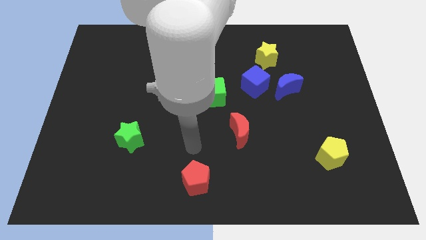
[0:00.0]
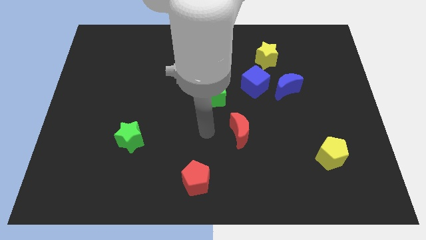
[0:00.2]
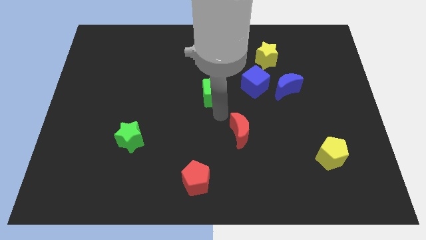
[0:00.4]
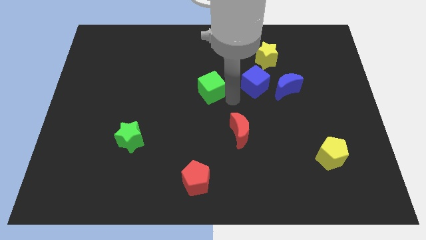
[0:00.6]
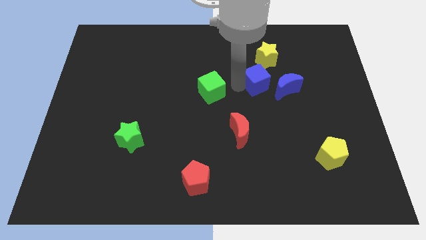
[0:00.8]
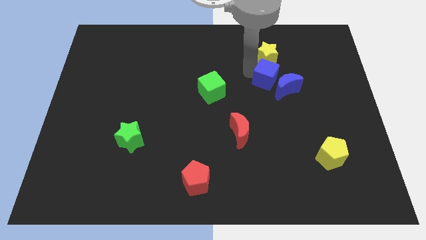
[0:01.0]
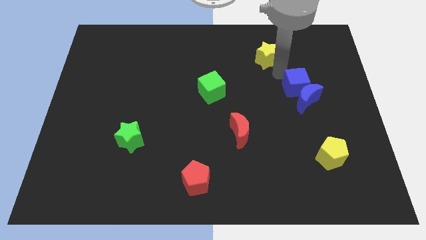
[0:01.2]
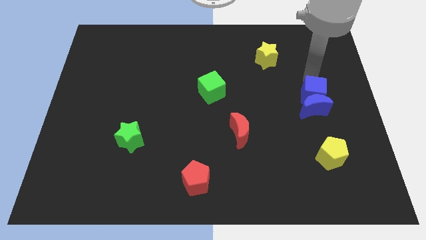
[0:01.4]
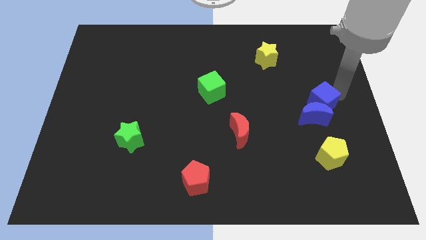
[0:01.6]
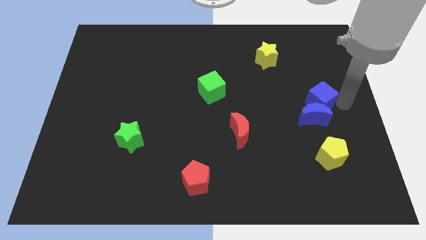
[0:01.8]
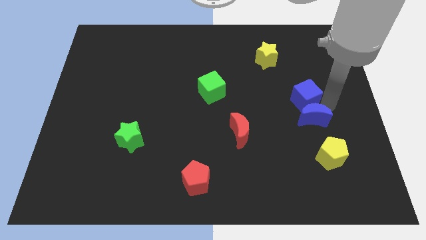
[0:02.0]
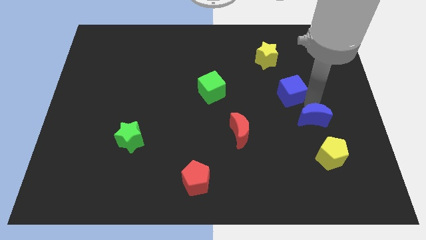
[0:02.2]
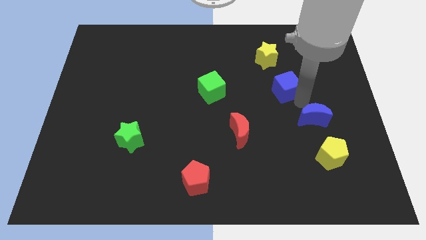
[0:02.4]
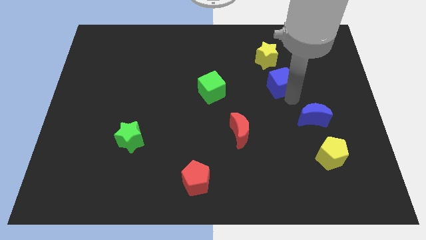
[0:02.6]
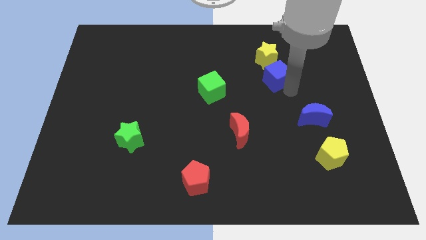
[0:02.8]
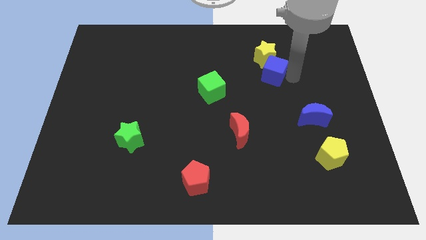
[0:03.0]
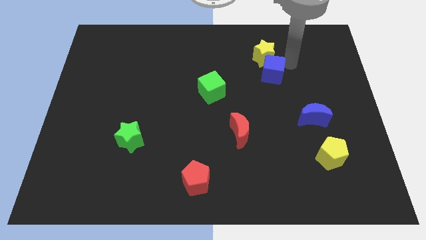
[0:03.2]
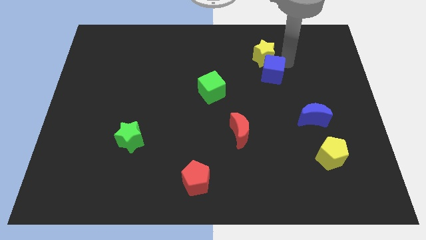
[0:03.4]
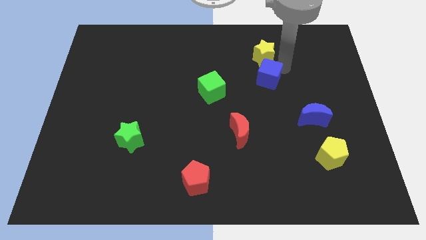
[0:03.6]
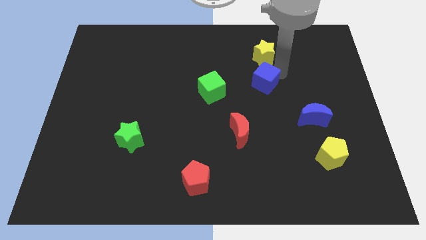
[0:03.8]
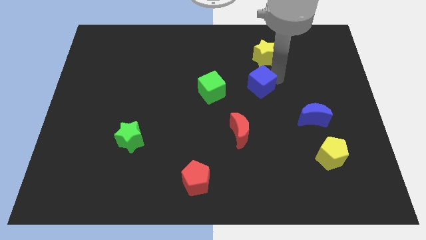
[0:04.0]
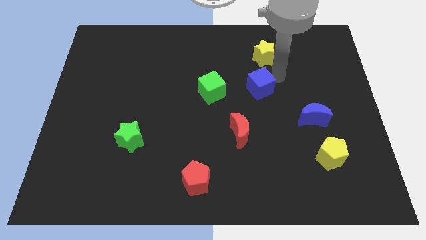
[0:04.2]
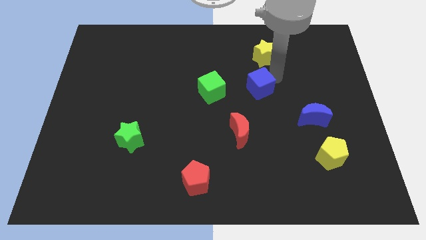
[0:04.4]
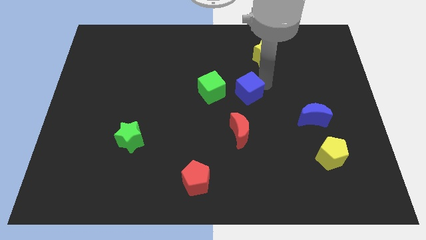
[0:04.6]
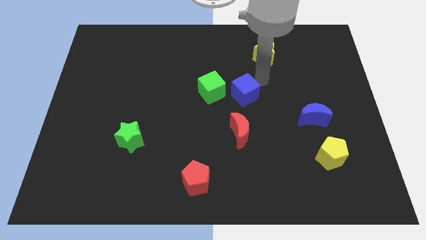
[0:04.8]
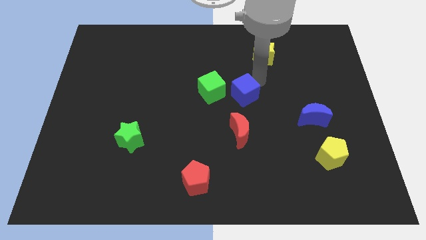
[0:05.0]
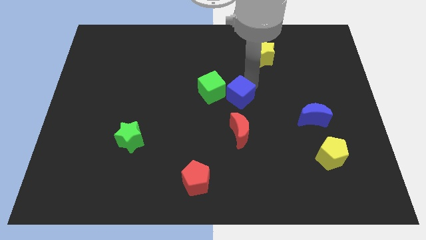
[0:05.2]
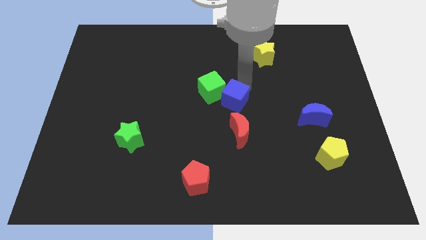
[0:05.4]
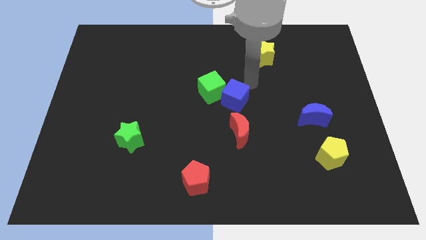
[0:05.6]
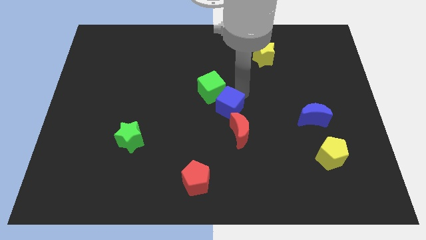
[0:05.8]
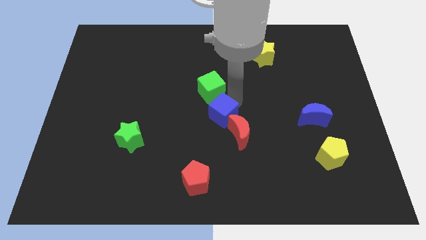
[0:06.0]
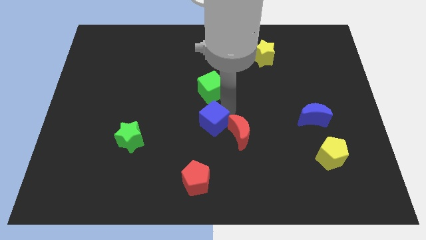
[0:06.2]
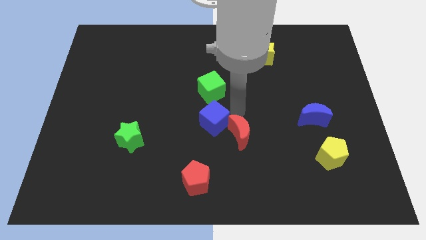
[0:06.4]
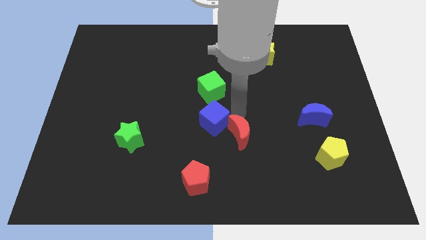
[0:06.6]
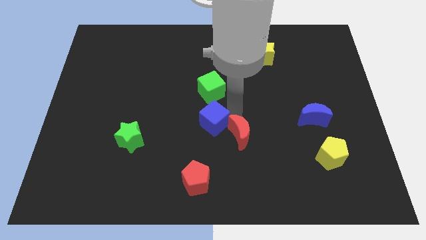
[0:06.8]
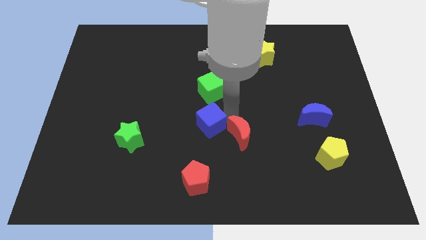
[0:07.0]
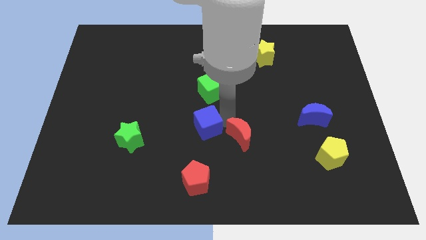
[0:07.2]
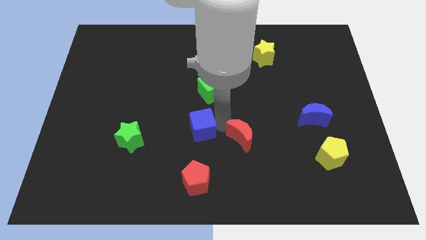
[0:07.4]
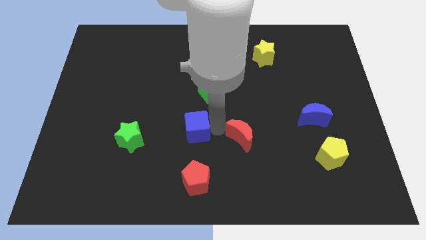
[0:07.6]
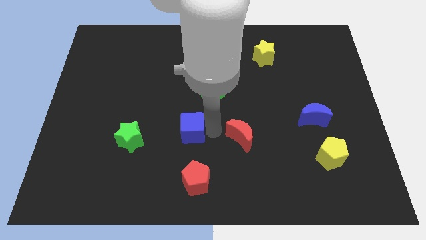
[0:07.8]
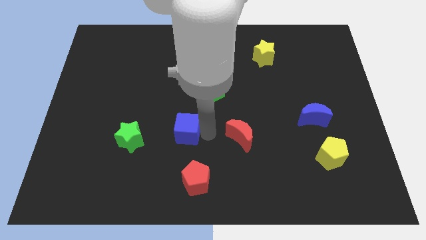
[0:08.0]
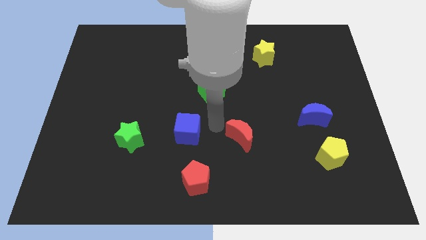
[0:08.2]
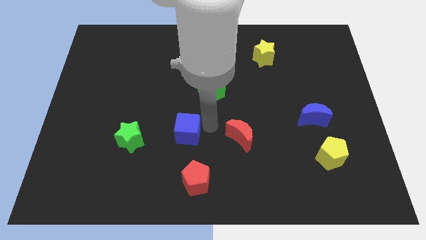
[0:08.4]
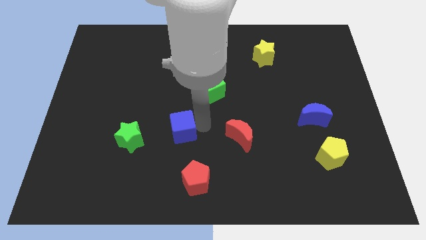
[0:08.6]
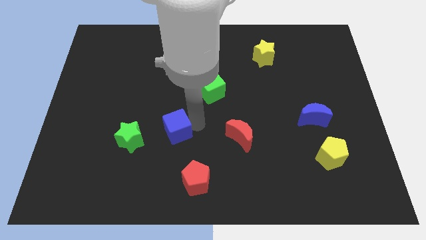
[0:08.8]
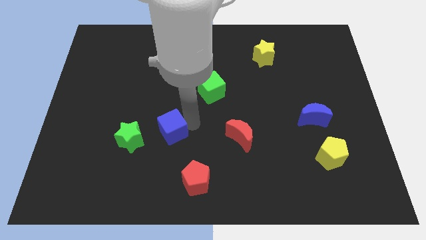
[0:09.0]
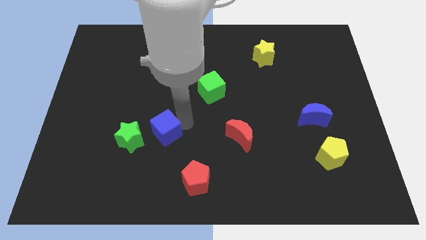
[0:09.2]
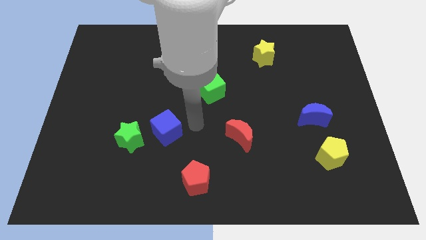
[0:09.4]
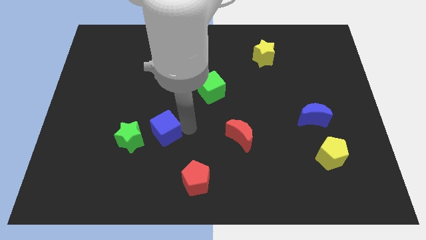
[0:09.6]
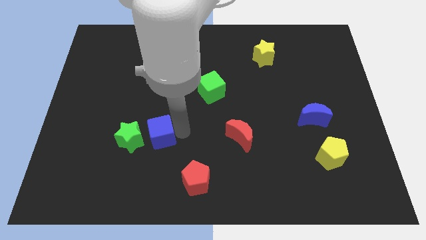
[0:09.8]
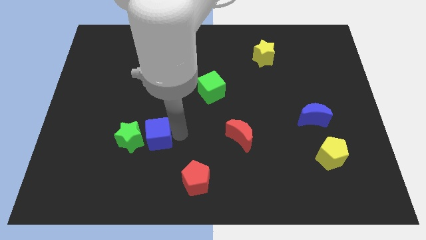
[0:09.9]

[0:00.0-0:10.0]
put the blue cube close to the green star

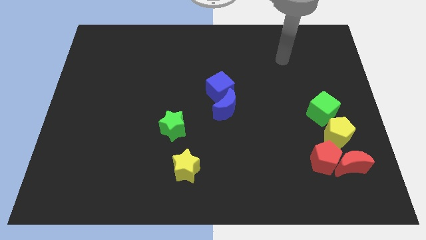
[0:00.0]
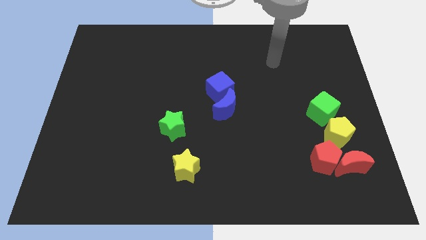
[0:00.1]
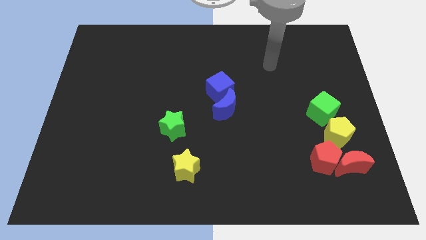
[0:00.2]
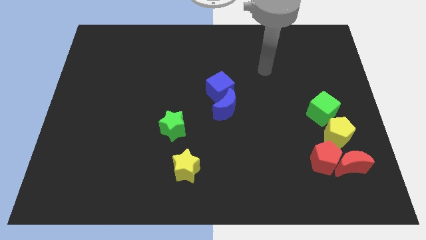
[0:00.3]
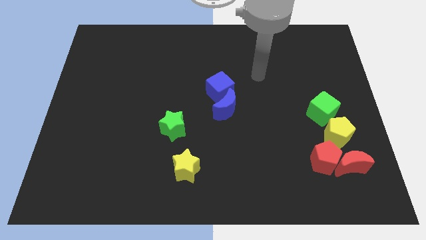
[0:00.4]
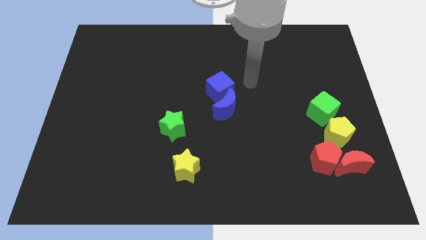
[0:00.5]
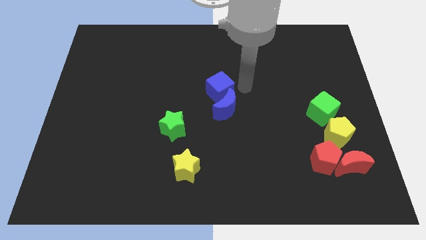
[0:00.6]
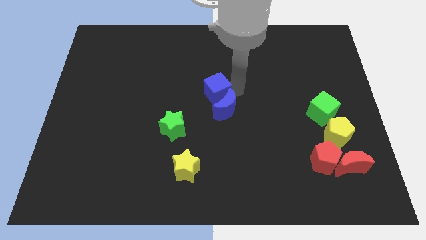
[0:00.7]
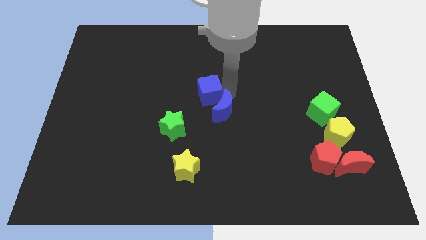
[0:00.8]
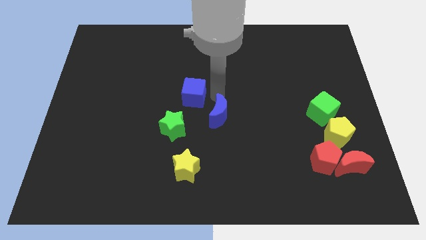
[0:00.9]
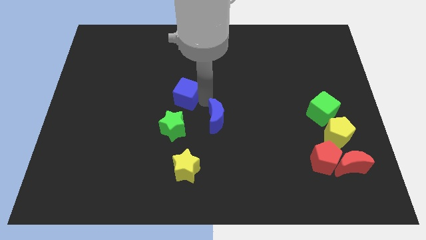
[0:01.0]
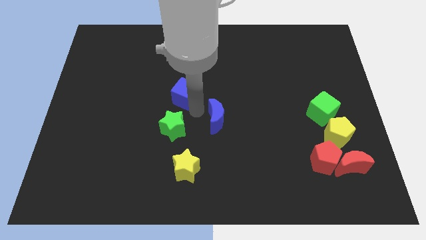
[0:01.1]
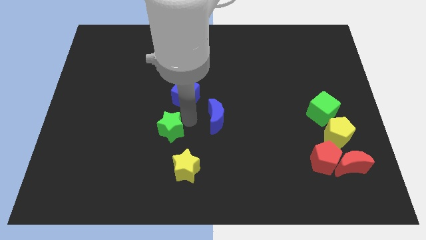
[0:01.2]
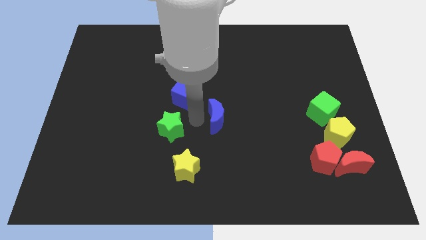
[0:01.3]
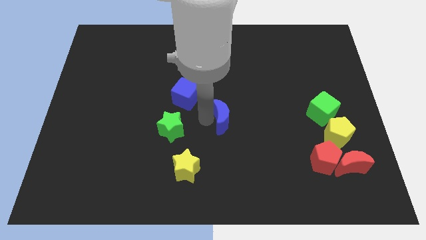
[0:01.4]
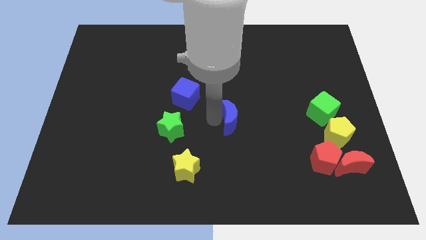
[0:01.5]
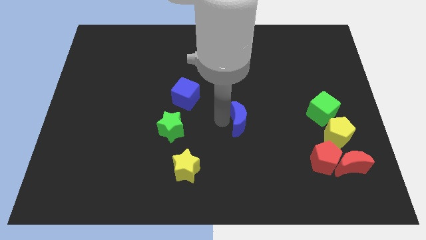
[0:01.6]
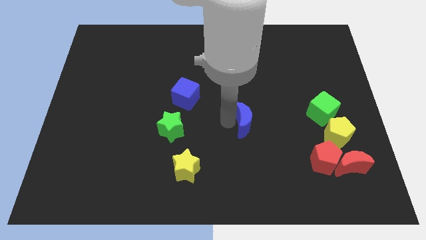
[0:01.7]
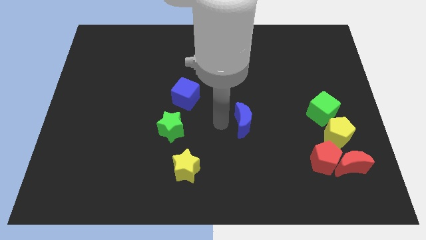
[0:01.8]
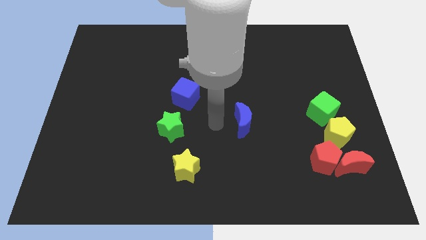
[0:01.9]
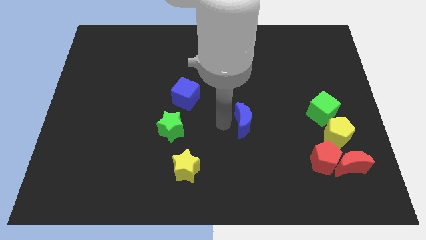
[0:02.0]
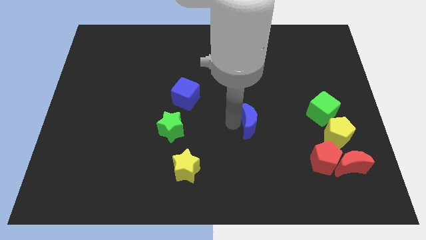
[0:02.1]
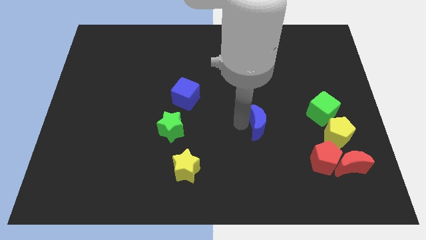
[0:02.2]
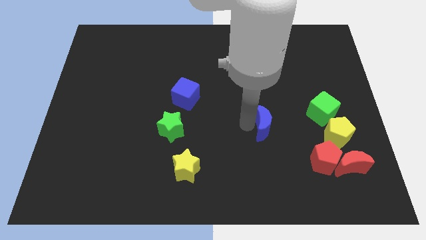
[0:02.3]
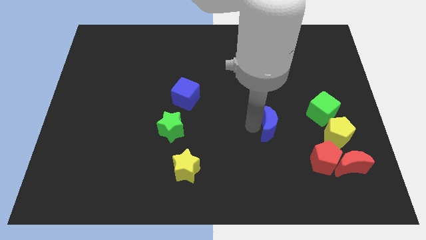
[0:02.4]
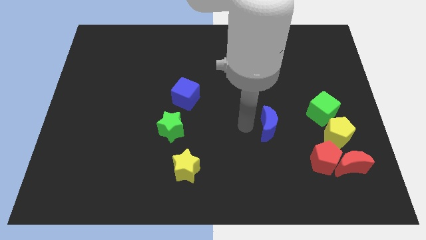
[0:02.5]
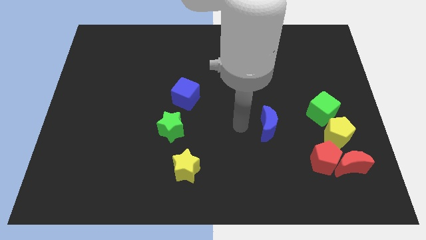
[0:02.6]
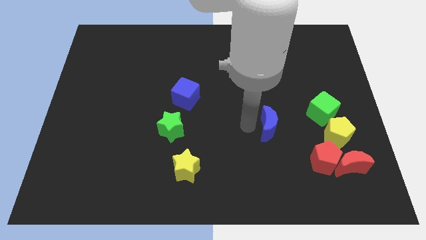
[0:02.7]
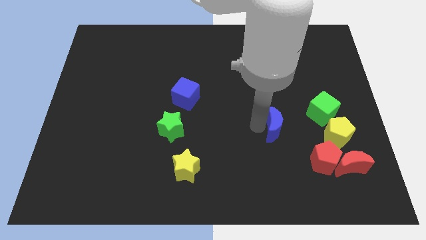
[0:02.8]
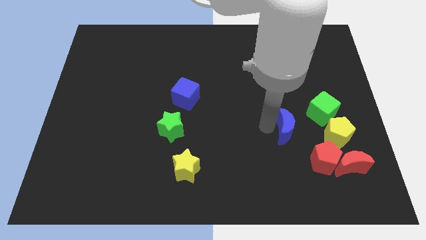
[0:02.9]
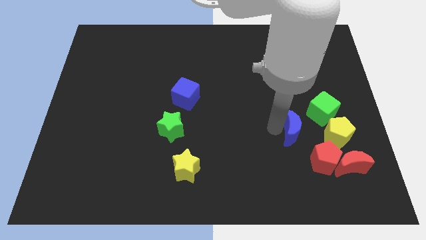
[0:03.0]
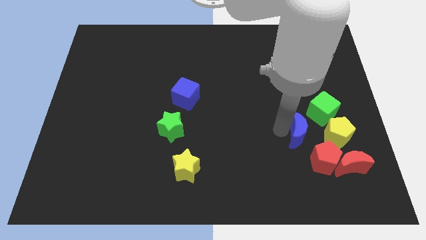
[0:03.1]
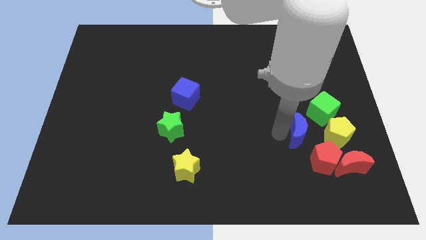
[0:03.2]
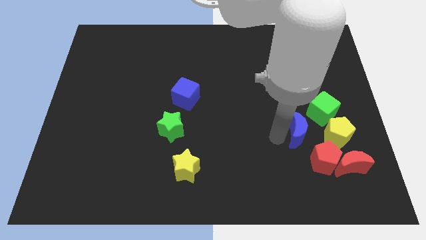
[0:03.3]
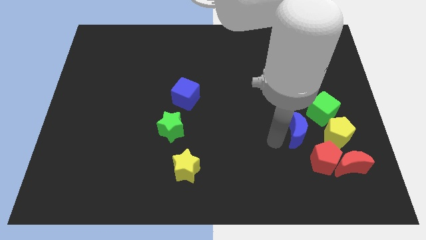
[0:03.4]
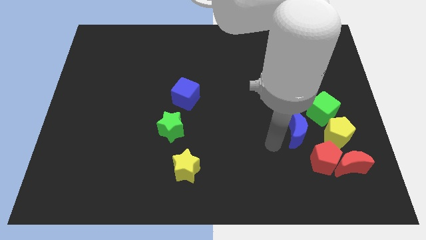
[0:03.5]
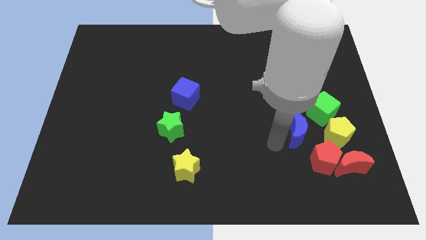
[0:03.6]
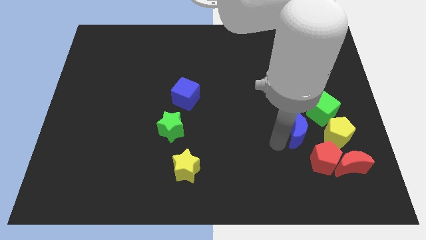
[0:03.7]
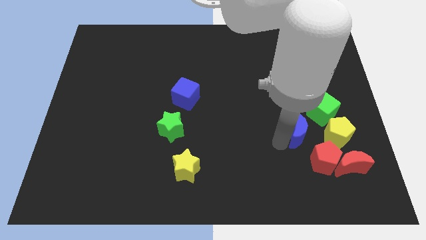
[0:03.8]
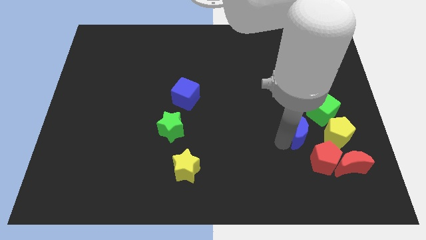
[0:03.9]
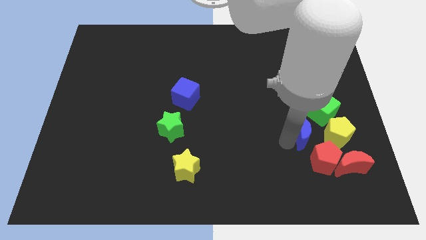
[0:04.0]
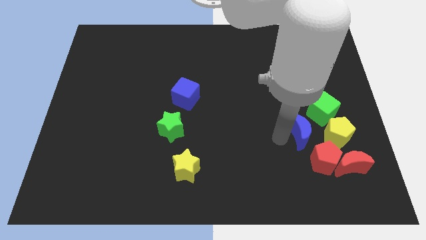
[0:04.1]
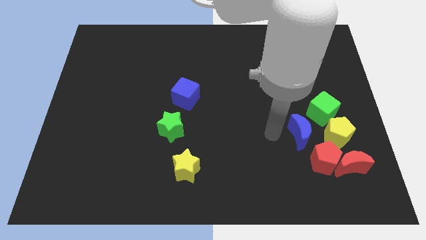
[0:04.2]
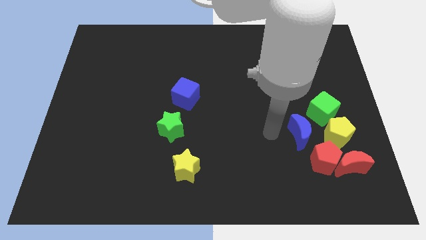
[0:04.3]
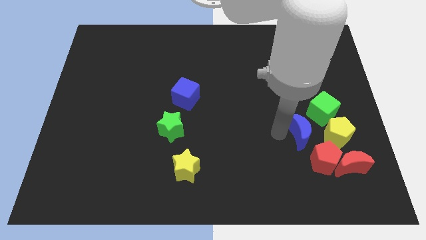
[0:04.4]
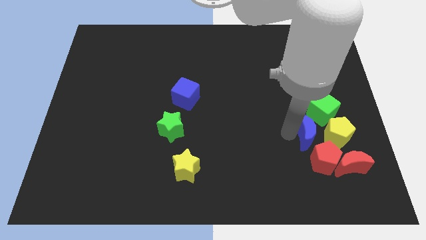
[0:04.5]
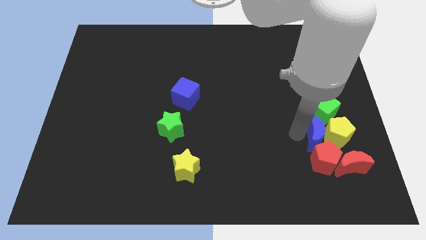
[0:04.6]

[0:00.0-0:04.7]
move the blue moon next to the yellow pentagon
